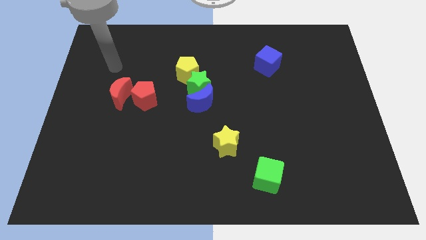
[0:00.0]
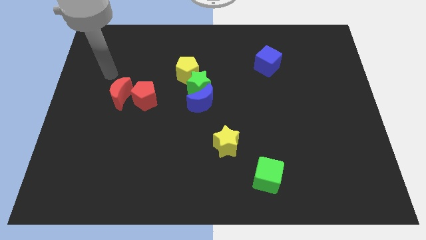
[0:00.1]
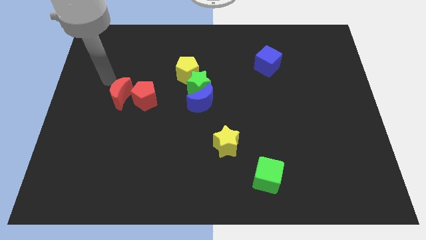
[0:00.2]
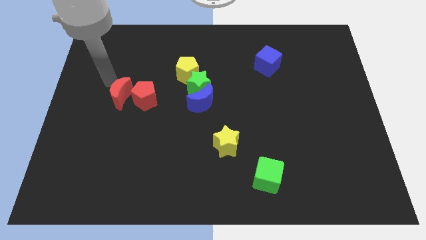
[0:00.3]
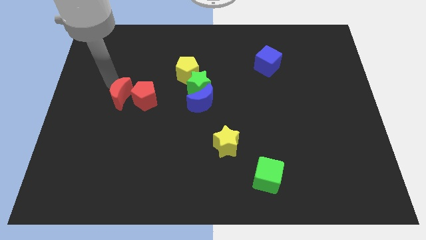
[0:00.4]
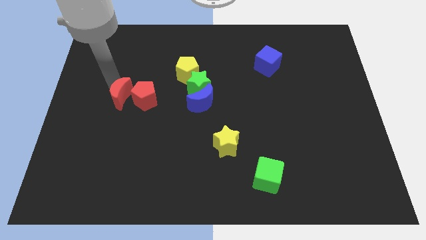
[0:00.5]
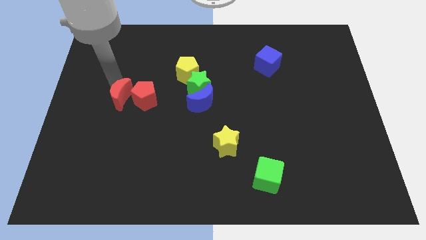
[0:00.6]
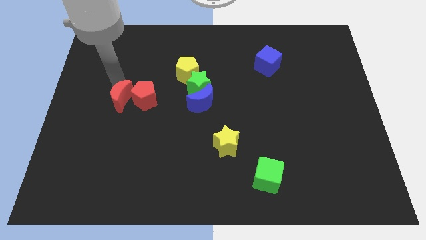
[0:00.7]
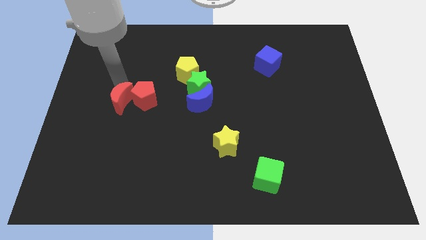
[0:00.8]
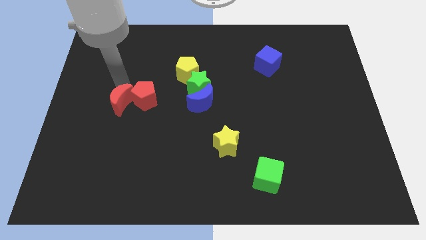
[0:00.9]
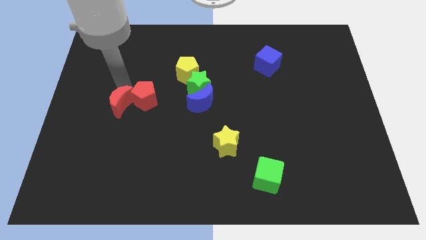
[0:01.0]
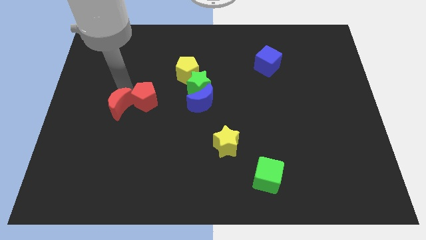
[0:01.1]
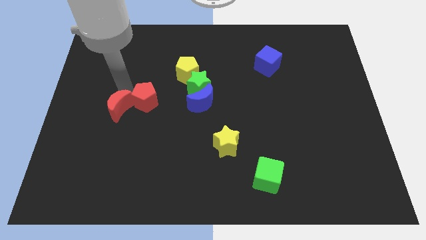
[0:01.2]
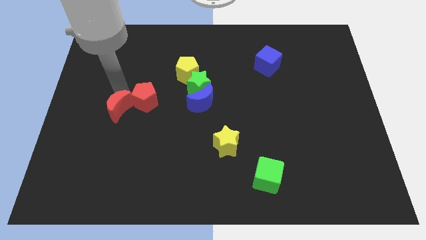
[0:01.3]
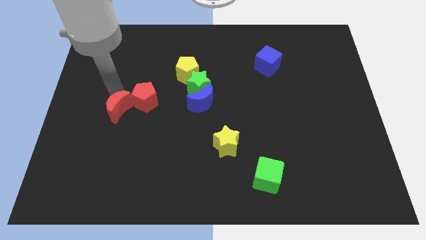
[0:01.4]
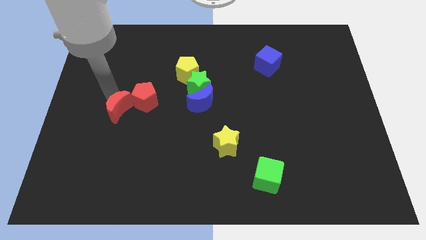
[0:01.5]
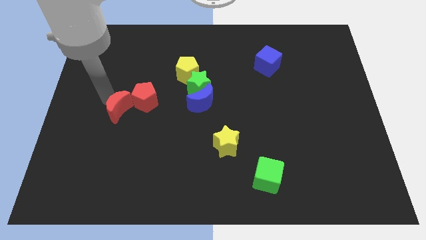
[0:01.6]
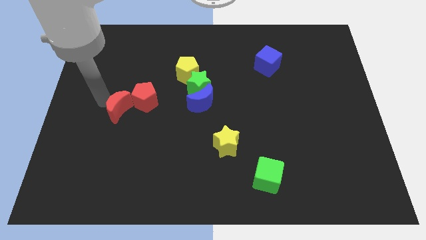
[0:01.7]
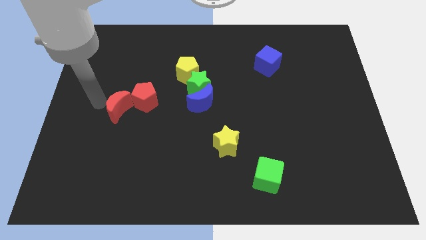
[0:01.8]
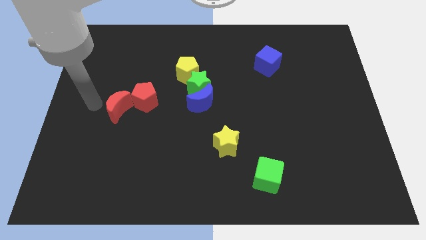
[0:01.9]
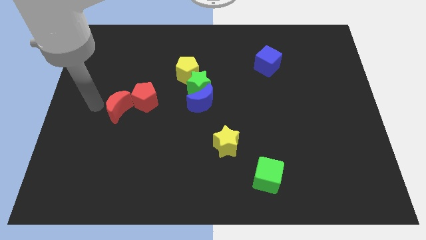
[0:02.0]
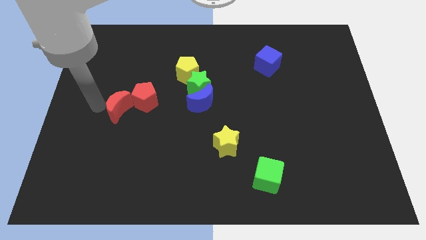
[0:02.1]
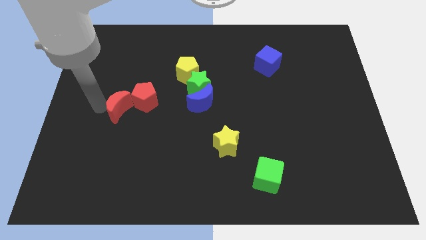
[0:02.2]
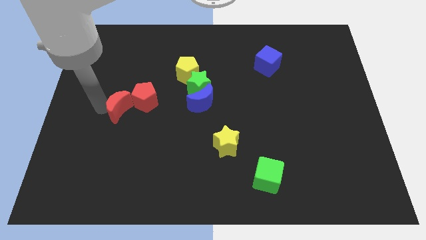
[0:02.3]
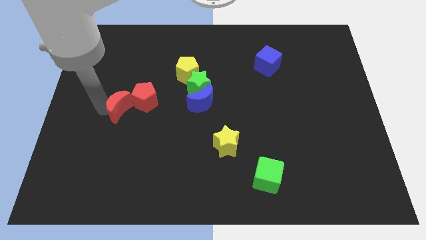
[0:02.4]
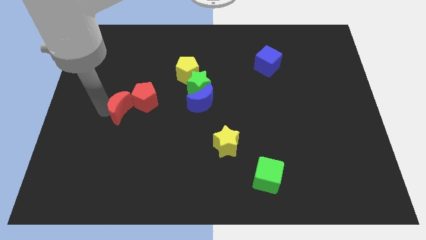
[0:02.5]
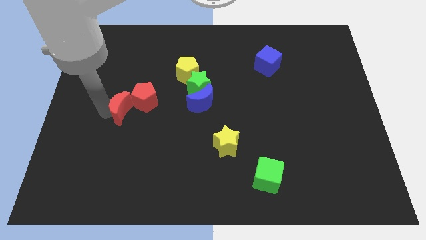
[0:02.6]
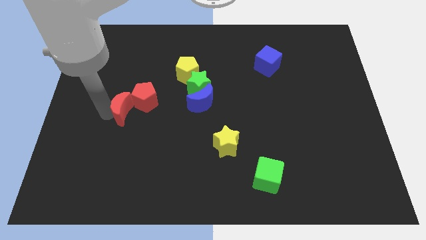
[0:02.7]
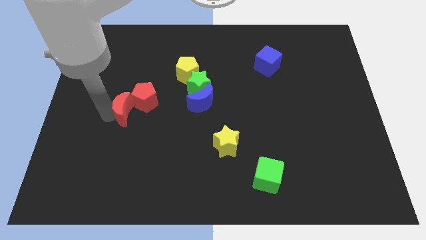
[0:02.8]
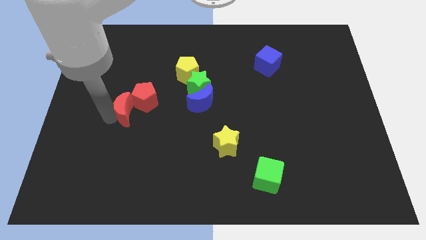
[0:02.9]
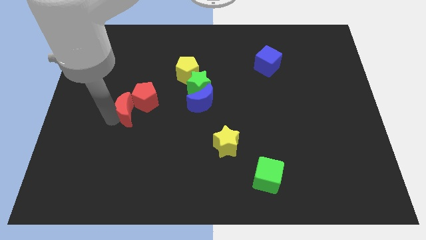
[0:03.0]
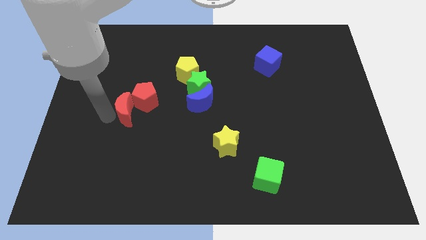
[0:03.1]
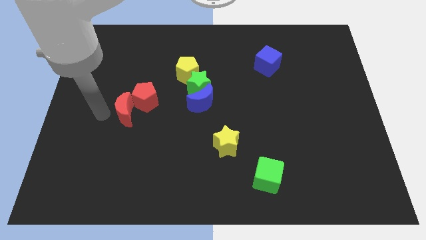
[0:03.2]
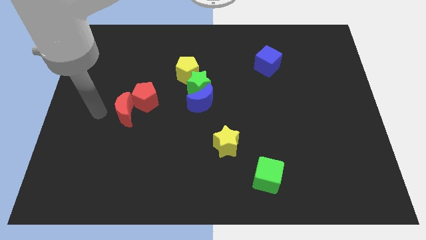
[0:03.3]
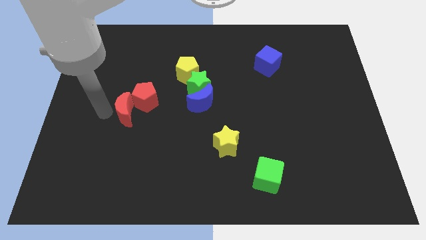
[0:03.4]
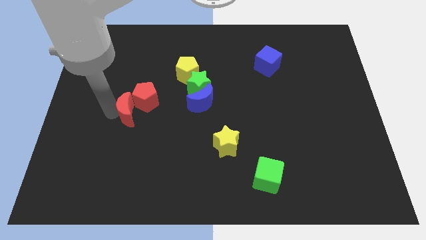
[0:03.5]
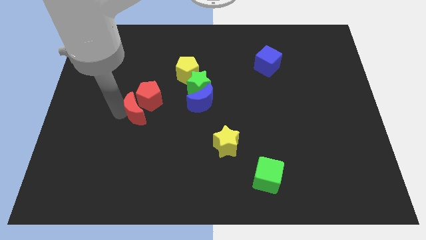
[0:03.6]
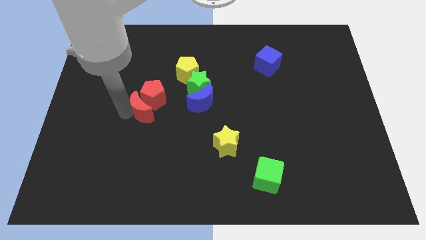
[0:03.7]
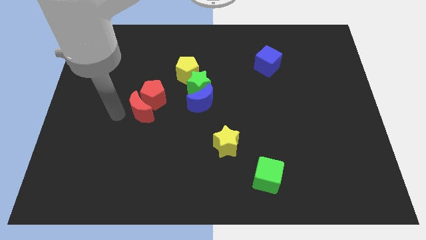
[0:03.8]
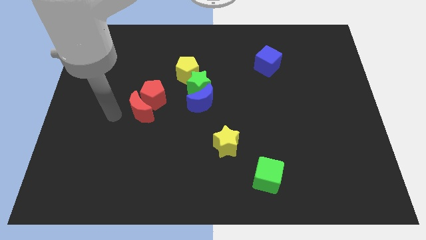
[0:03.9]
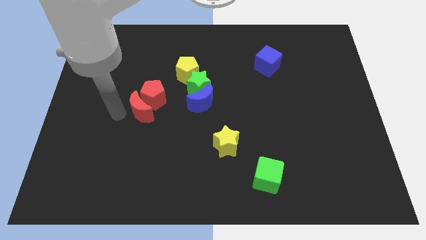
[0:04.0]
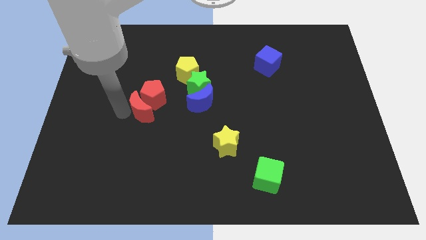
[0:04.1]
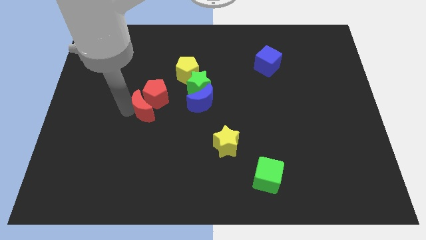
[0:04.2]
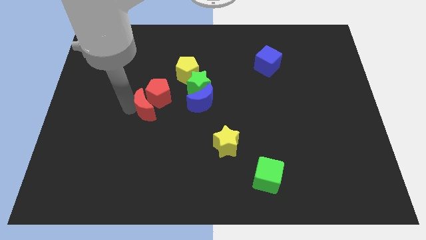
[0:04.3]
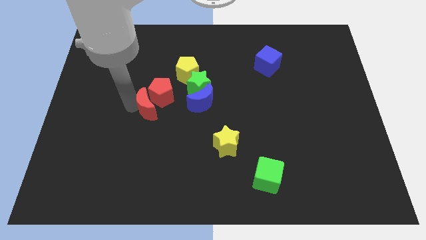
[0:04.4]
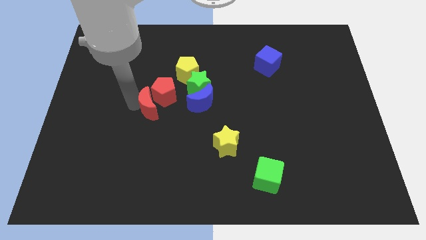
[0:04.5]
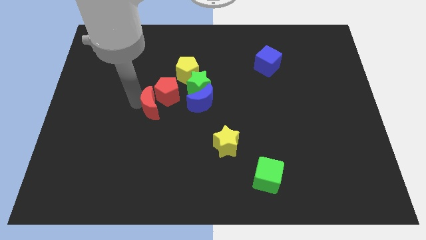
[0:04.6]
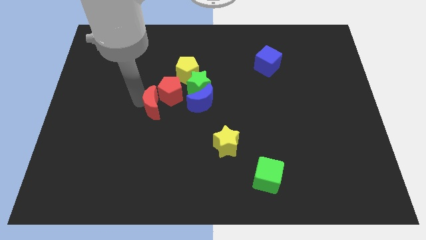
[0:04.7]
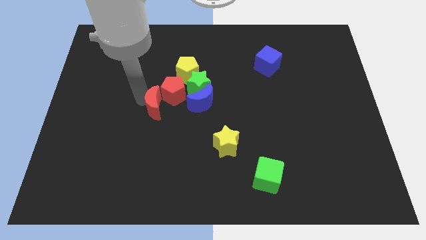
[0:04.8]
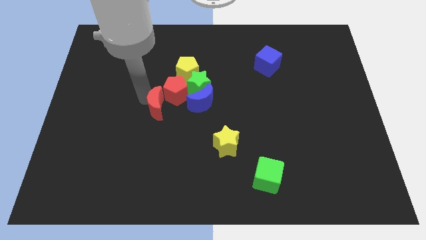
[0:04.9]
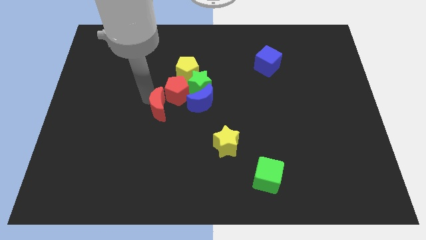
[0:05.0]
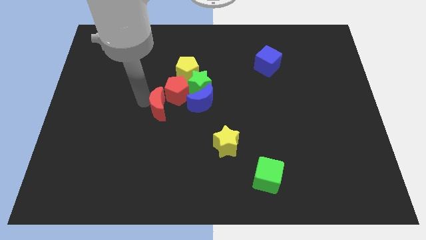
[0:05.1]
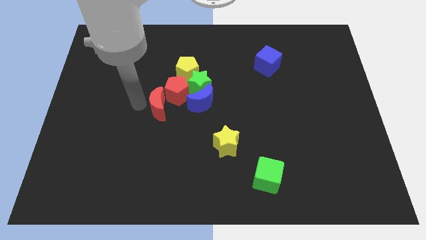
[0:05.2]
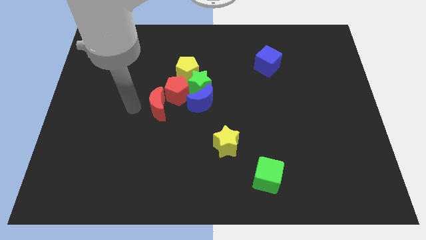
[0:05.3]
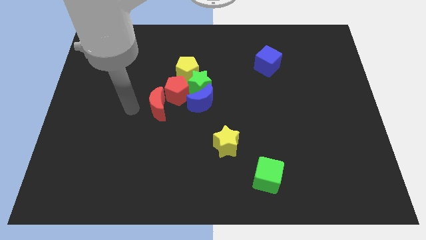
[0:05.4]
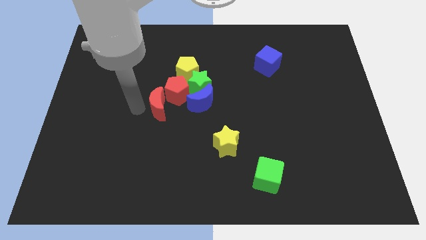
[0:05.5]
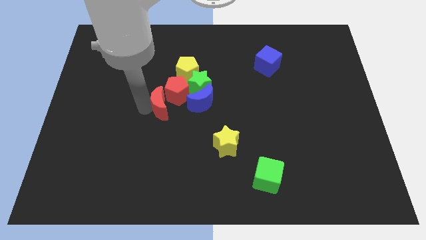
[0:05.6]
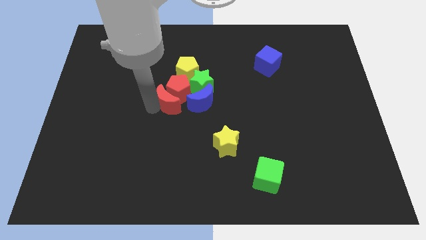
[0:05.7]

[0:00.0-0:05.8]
put the red moon to the bottom side of the yellow pentagon

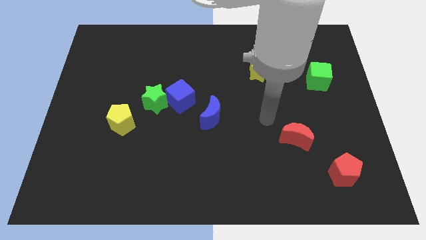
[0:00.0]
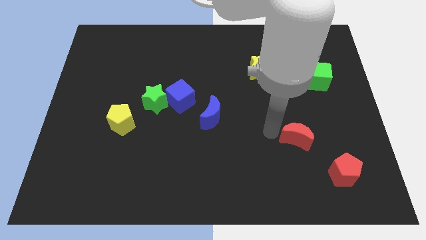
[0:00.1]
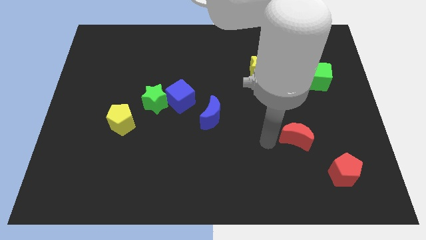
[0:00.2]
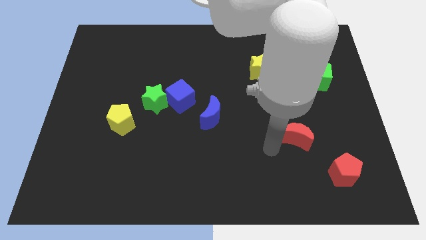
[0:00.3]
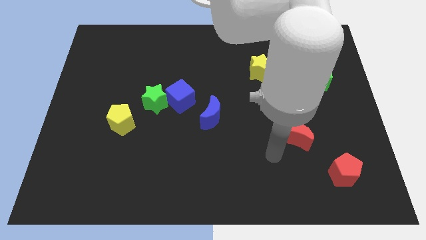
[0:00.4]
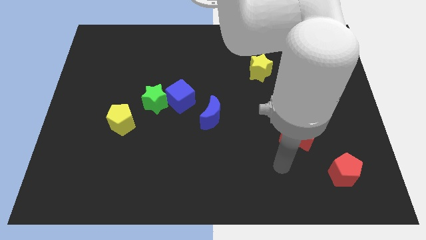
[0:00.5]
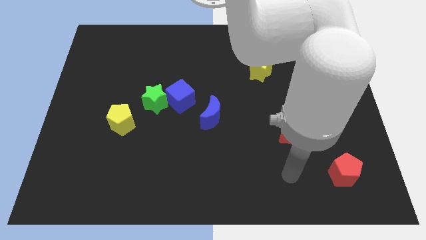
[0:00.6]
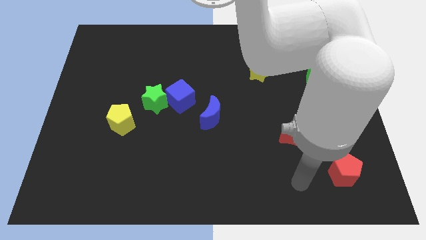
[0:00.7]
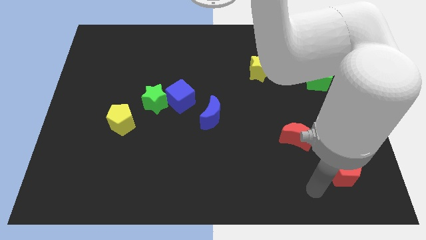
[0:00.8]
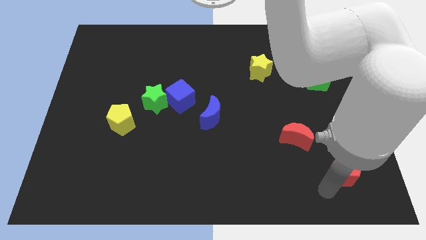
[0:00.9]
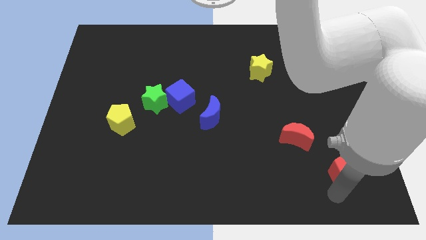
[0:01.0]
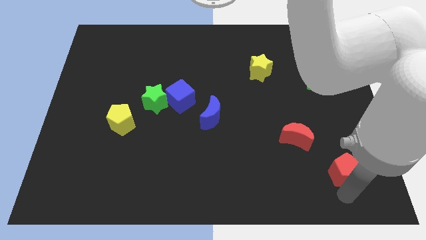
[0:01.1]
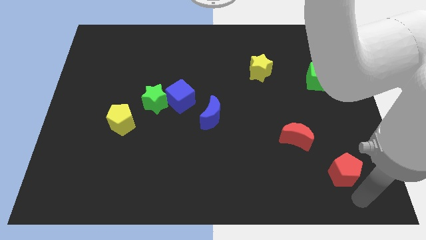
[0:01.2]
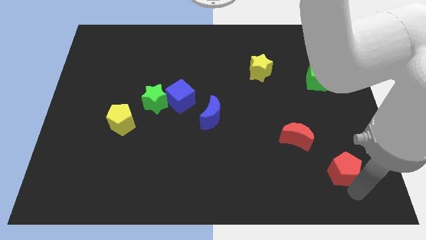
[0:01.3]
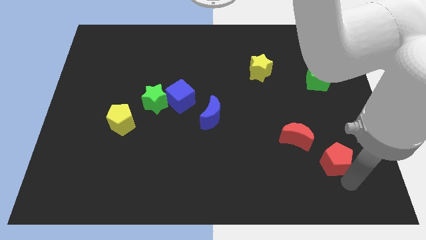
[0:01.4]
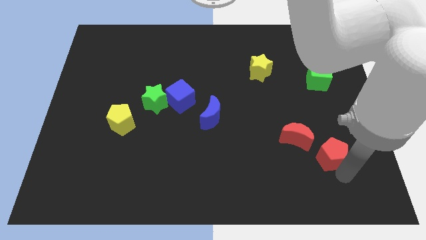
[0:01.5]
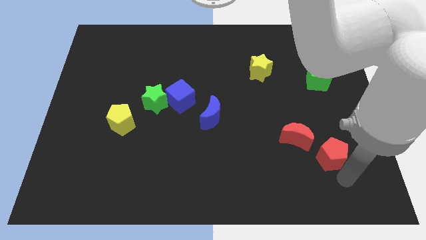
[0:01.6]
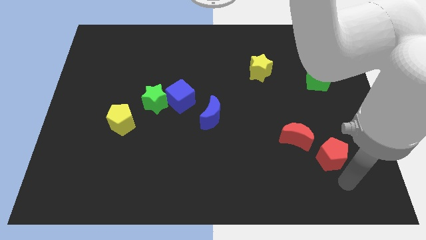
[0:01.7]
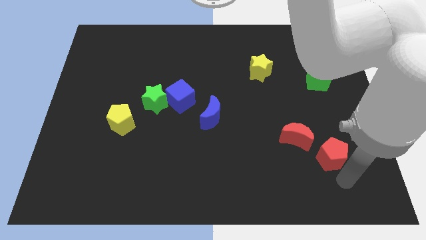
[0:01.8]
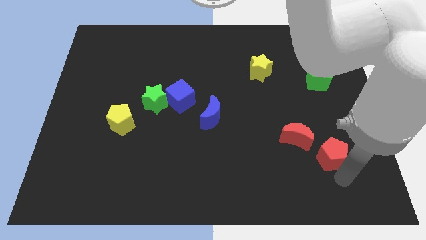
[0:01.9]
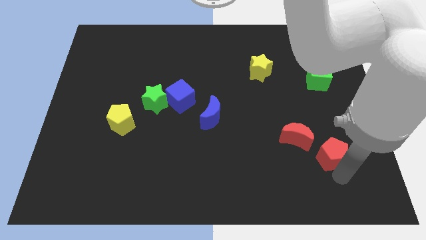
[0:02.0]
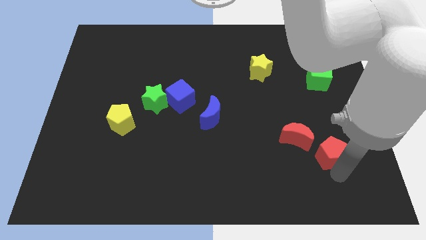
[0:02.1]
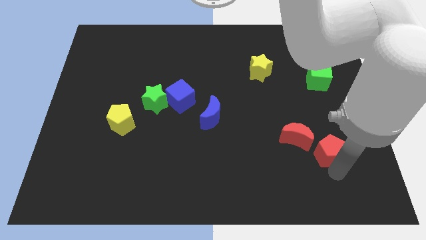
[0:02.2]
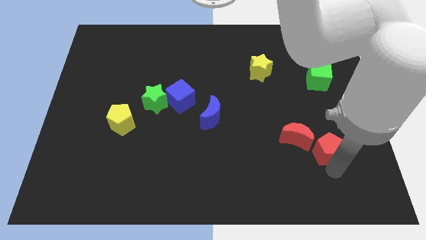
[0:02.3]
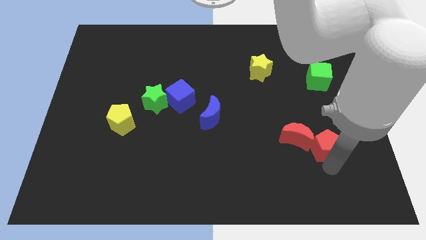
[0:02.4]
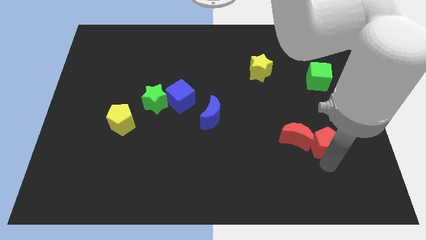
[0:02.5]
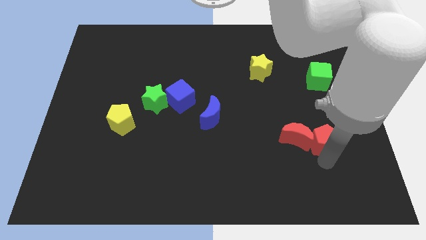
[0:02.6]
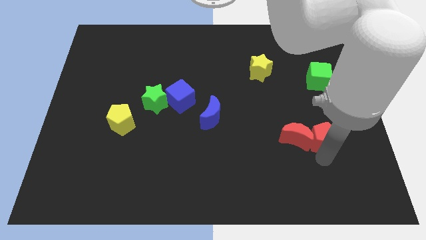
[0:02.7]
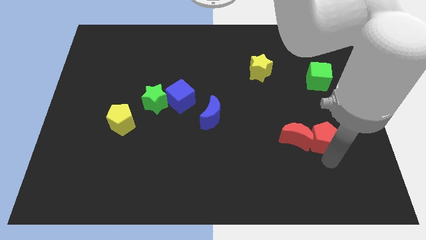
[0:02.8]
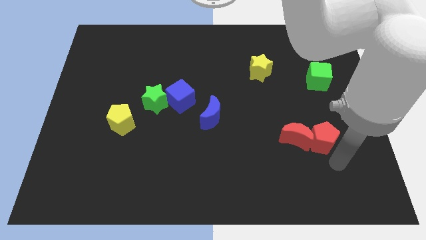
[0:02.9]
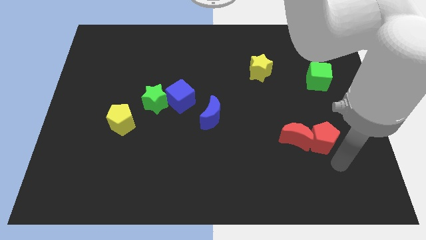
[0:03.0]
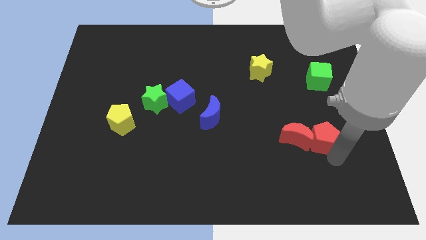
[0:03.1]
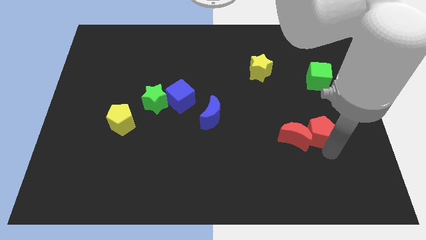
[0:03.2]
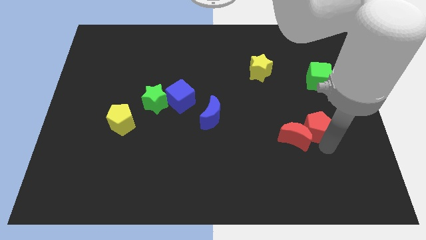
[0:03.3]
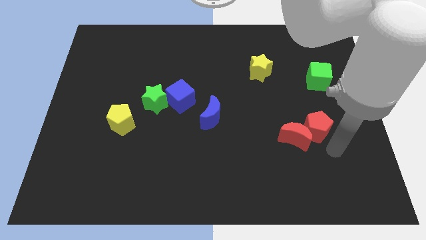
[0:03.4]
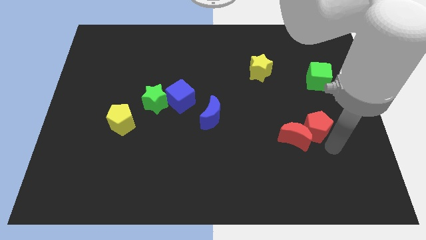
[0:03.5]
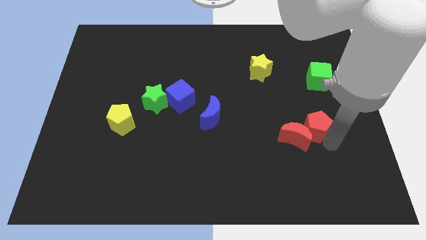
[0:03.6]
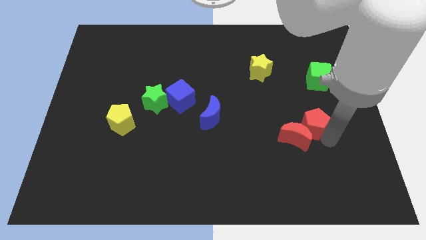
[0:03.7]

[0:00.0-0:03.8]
slide the red pentagon above the red moon
